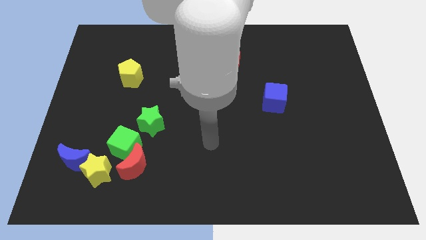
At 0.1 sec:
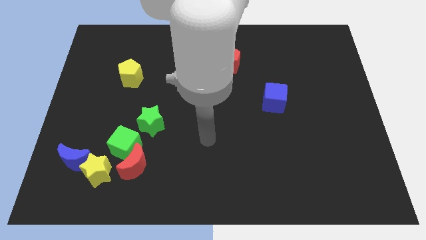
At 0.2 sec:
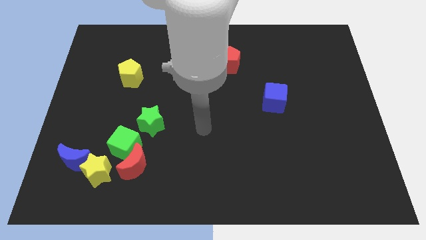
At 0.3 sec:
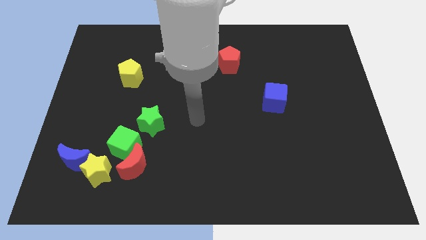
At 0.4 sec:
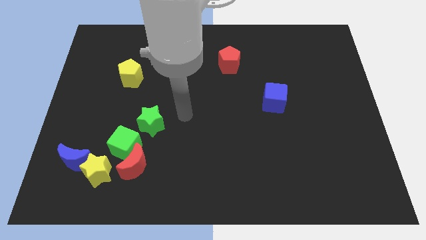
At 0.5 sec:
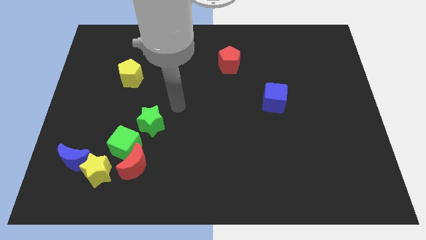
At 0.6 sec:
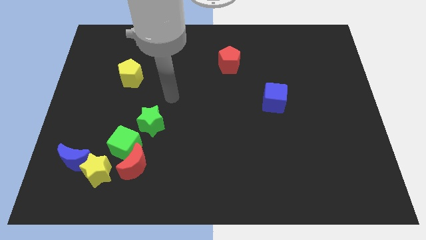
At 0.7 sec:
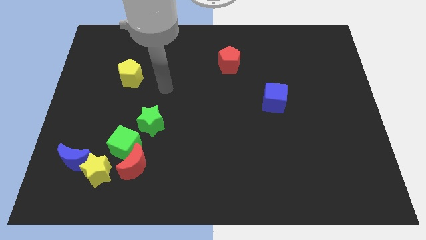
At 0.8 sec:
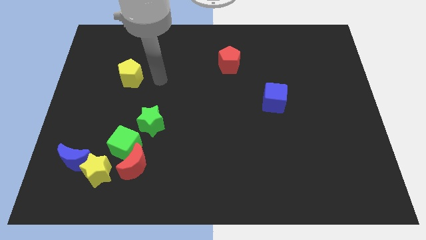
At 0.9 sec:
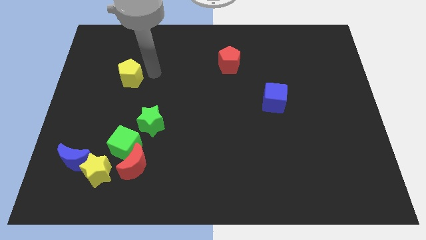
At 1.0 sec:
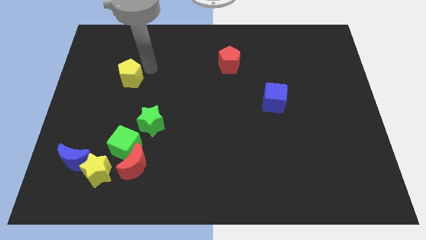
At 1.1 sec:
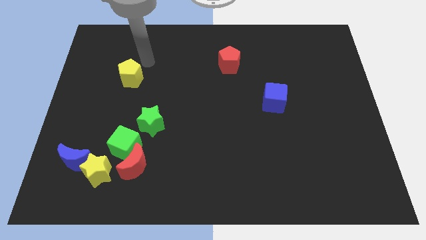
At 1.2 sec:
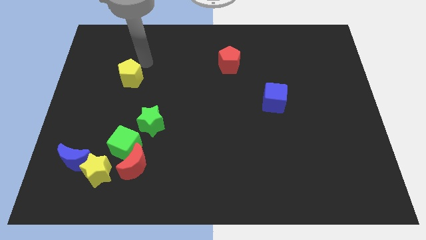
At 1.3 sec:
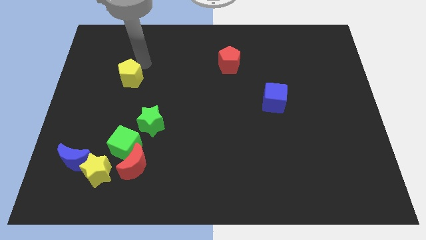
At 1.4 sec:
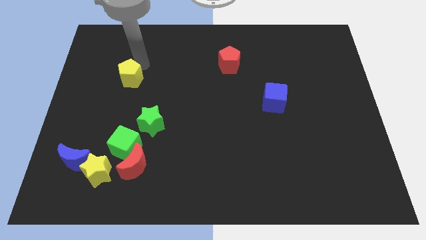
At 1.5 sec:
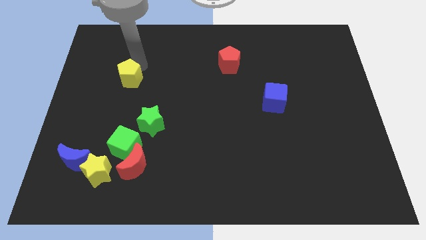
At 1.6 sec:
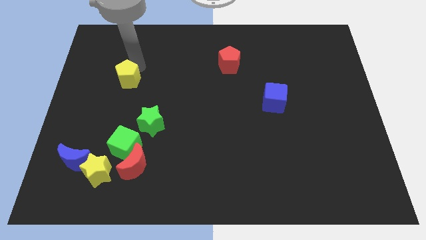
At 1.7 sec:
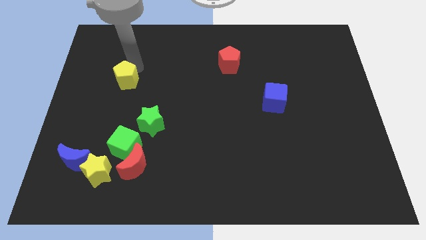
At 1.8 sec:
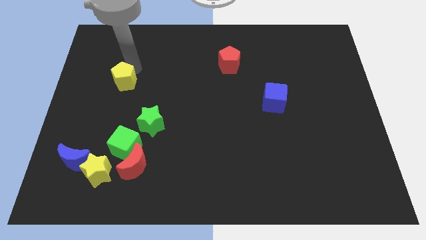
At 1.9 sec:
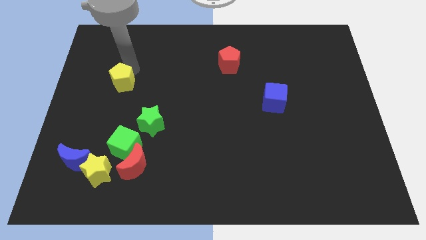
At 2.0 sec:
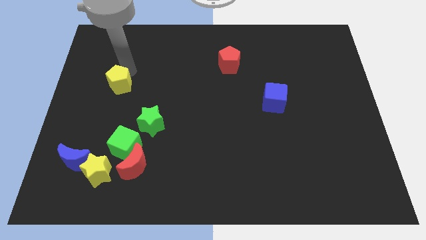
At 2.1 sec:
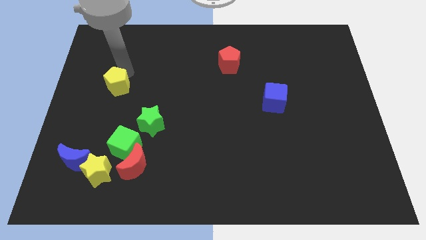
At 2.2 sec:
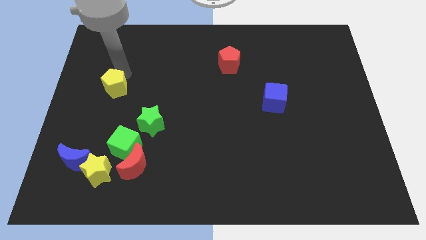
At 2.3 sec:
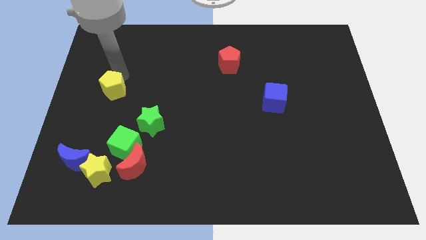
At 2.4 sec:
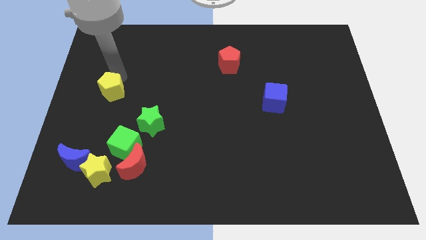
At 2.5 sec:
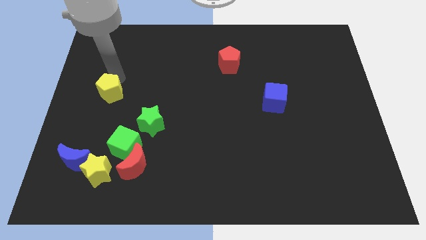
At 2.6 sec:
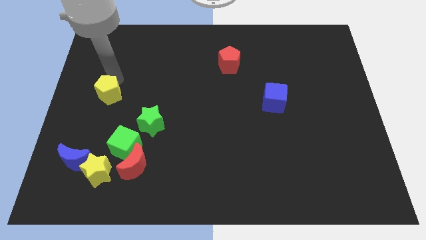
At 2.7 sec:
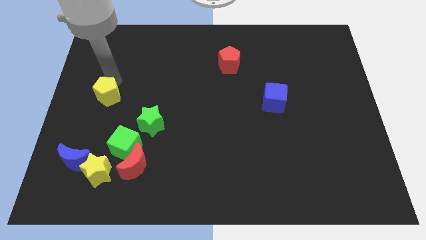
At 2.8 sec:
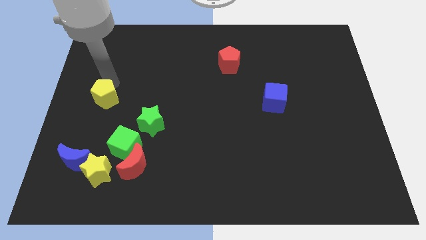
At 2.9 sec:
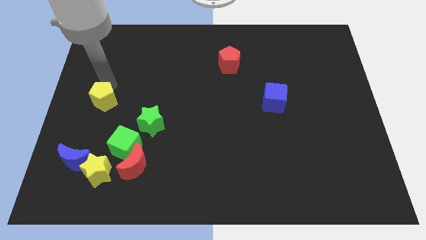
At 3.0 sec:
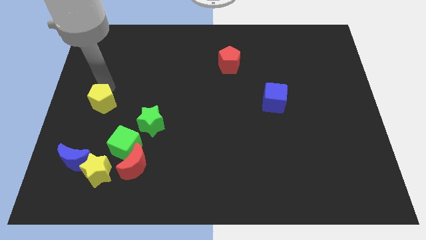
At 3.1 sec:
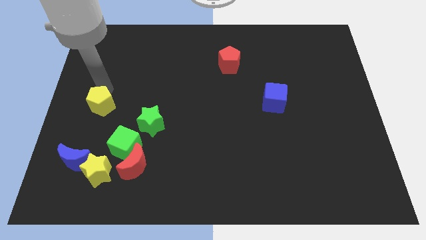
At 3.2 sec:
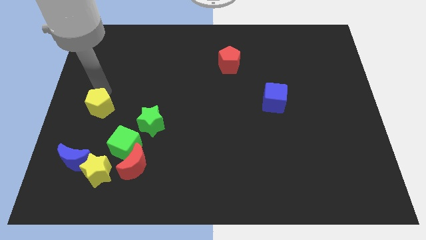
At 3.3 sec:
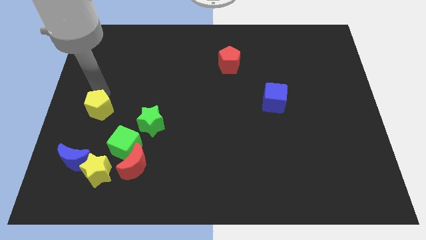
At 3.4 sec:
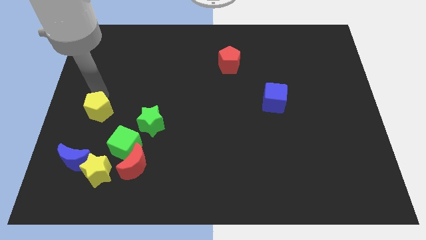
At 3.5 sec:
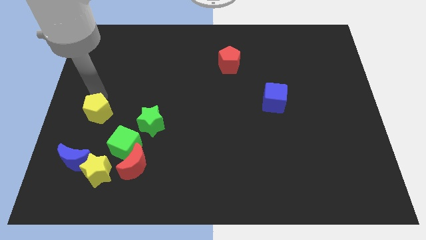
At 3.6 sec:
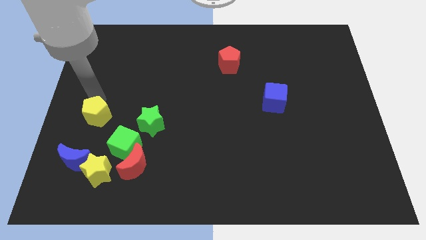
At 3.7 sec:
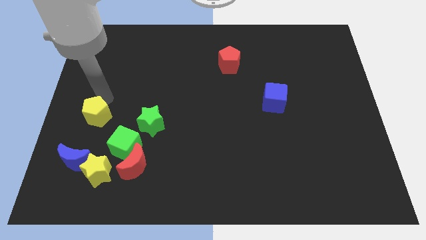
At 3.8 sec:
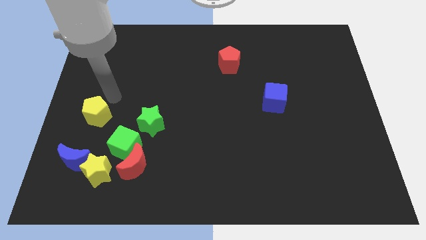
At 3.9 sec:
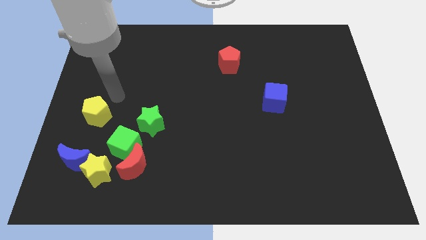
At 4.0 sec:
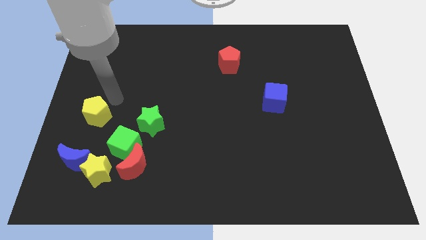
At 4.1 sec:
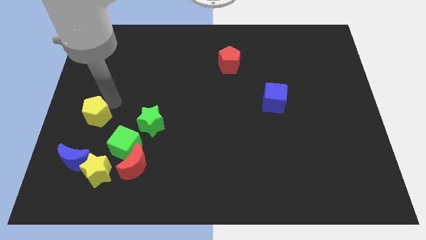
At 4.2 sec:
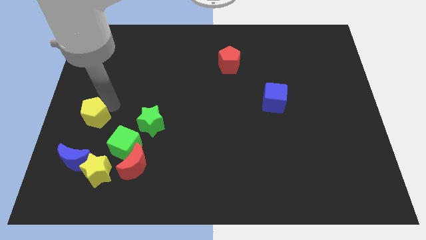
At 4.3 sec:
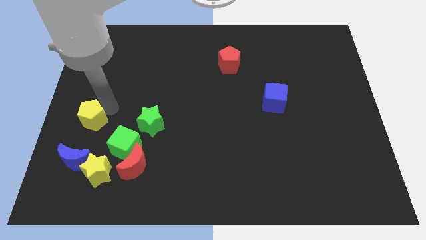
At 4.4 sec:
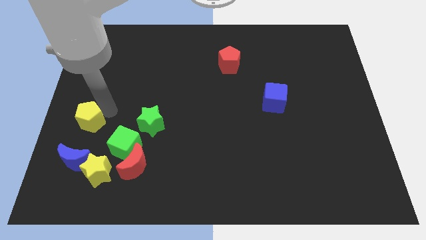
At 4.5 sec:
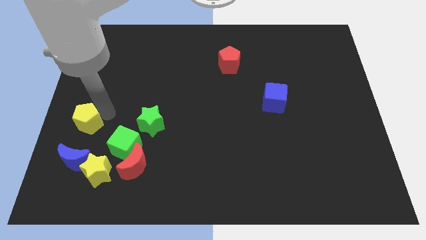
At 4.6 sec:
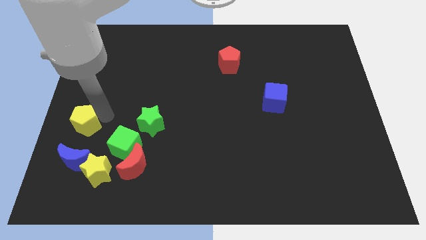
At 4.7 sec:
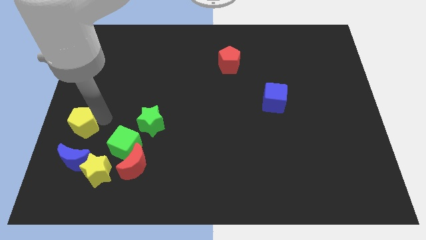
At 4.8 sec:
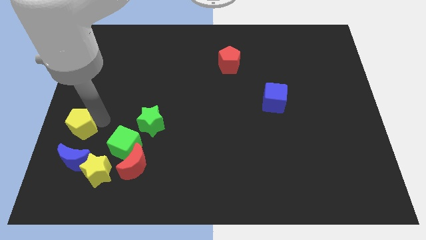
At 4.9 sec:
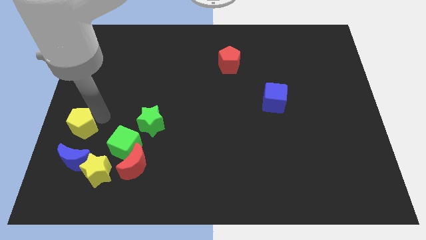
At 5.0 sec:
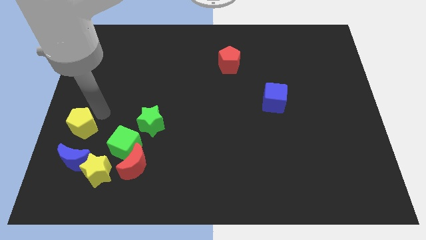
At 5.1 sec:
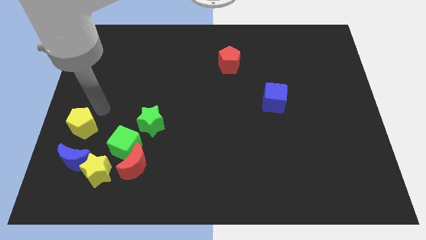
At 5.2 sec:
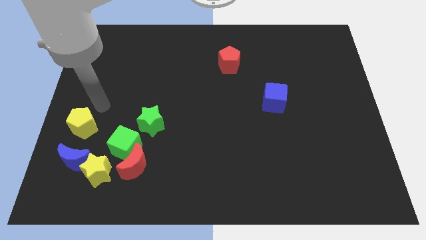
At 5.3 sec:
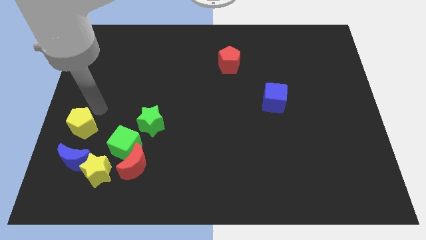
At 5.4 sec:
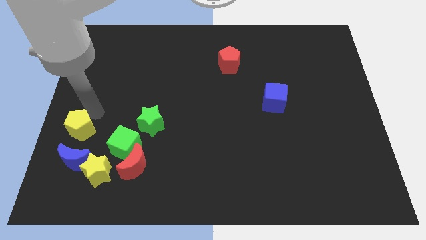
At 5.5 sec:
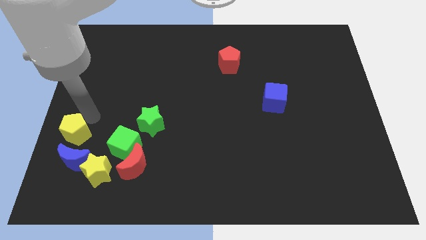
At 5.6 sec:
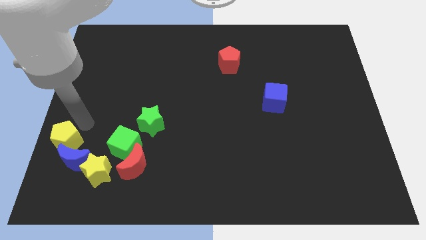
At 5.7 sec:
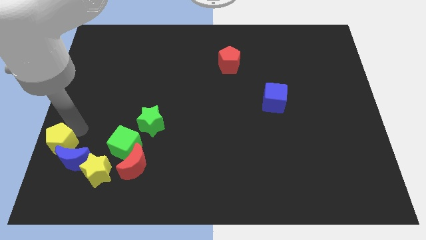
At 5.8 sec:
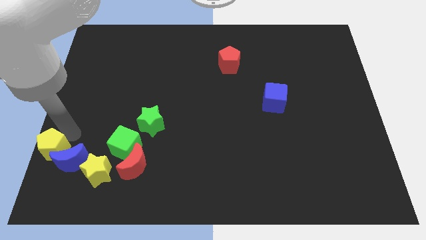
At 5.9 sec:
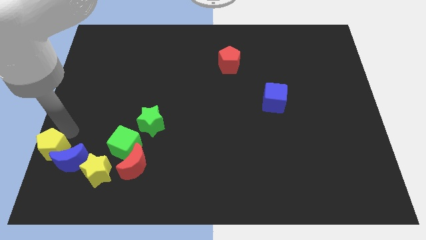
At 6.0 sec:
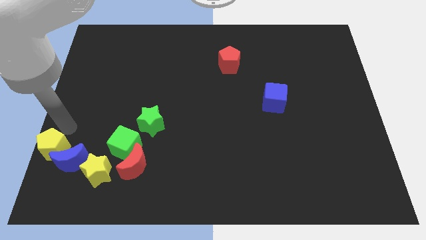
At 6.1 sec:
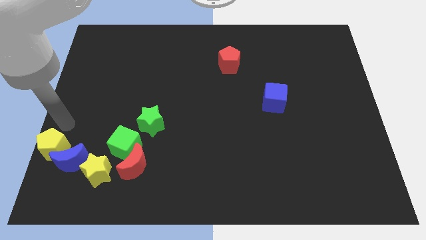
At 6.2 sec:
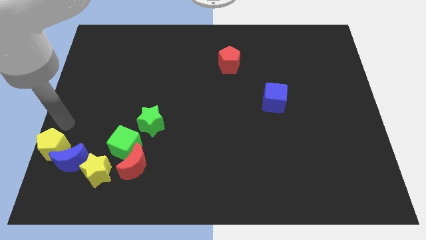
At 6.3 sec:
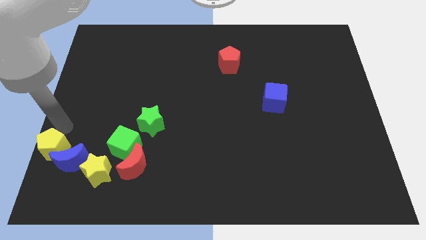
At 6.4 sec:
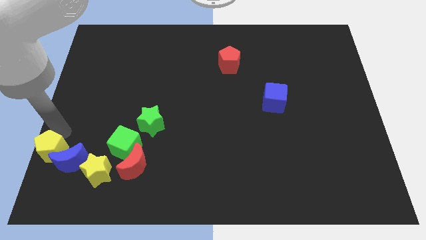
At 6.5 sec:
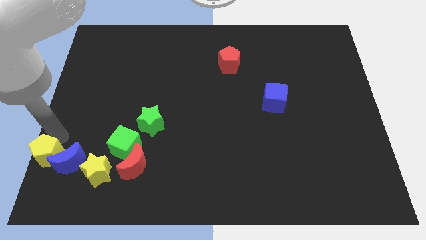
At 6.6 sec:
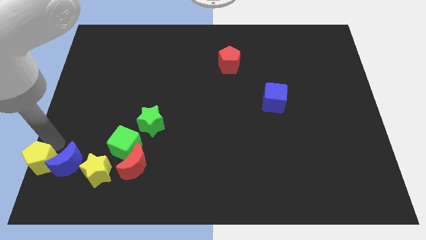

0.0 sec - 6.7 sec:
move the yellow pentagon to the bottom left of the board

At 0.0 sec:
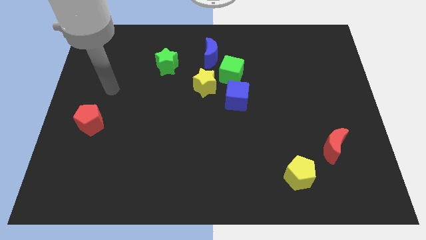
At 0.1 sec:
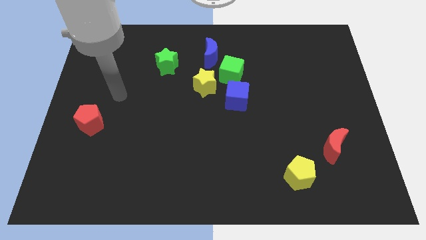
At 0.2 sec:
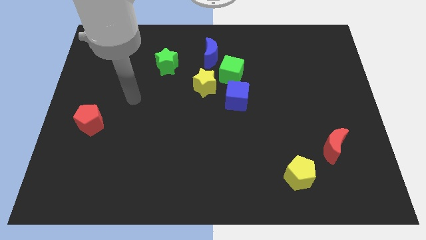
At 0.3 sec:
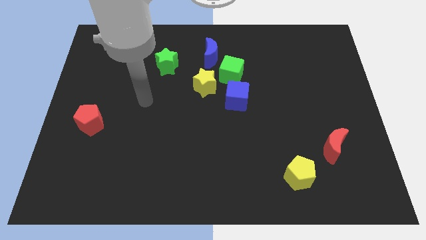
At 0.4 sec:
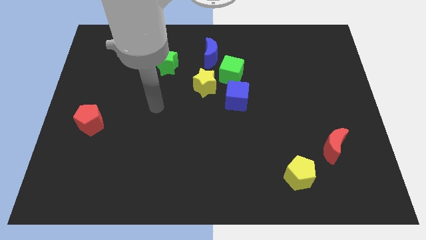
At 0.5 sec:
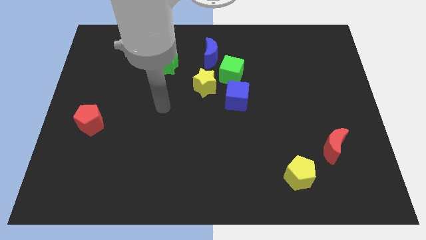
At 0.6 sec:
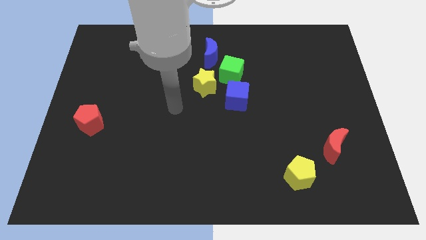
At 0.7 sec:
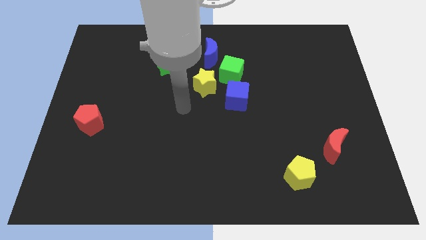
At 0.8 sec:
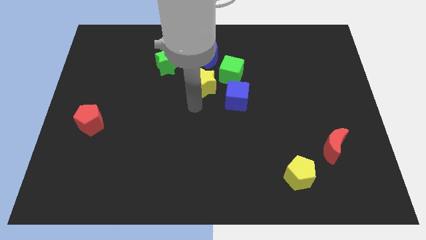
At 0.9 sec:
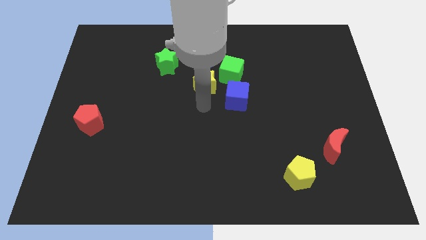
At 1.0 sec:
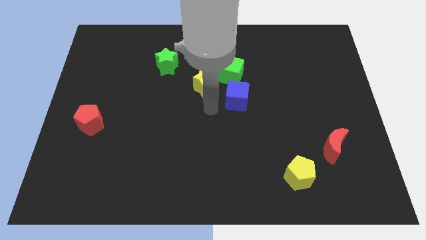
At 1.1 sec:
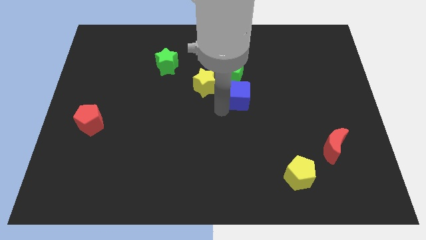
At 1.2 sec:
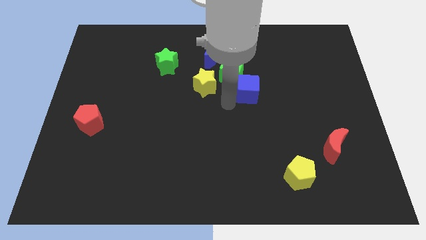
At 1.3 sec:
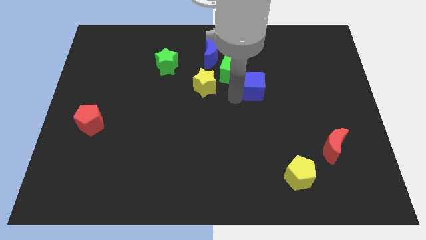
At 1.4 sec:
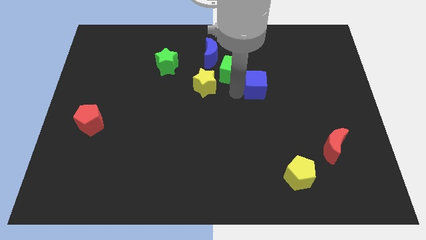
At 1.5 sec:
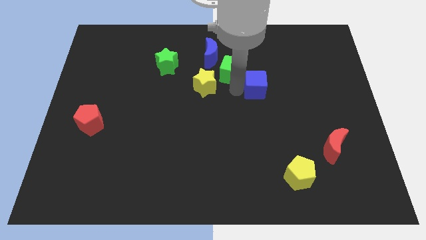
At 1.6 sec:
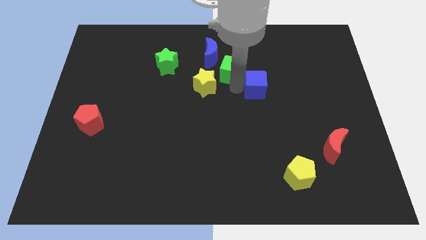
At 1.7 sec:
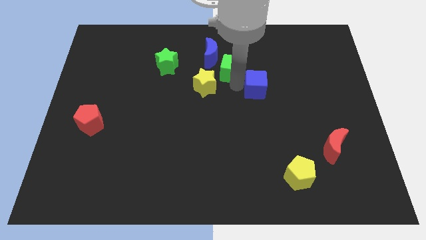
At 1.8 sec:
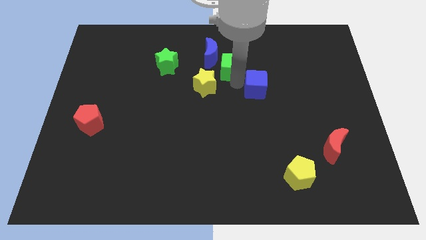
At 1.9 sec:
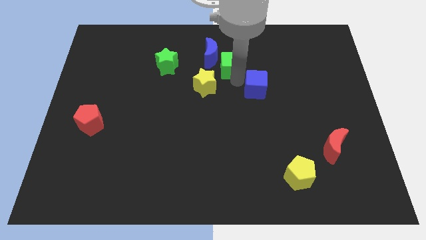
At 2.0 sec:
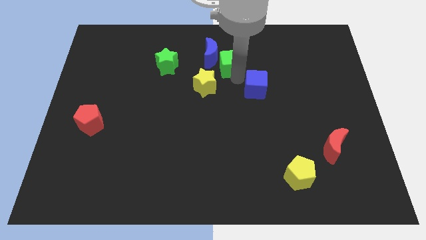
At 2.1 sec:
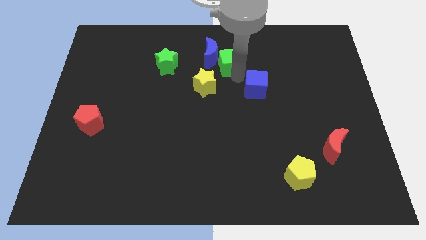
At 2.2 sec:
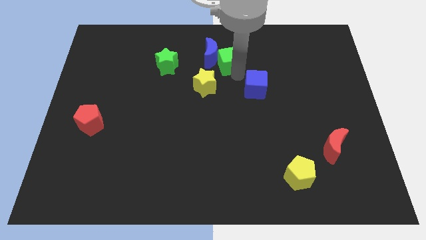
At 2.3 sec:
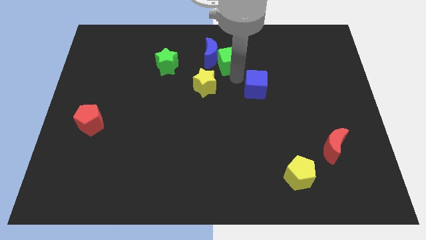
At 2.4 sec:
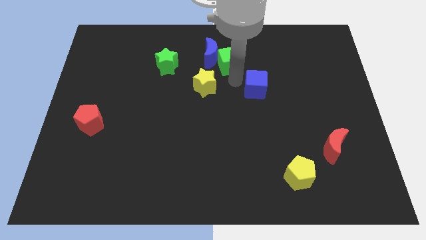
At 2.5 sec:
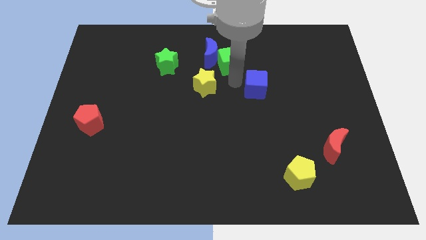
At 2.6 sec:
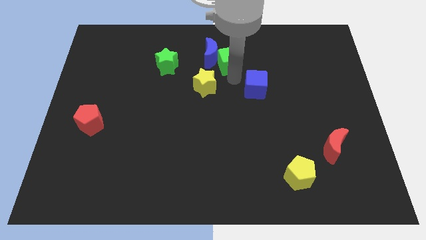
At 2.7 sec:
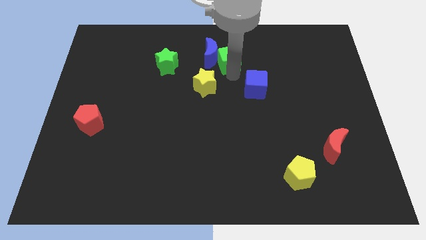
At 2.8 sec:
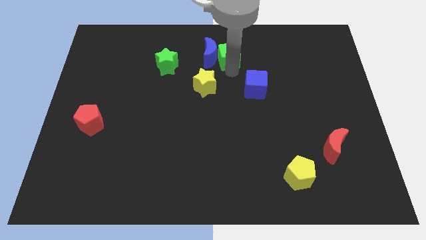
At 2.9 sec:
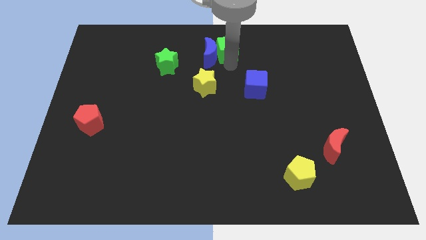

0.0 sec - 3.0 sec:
push the green cube to the top side
